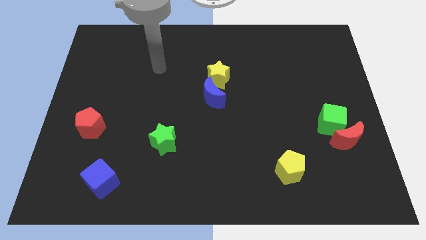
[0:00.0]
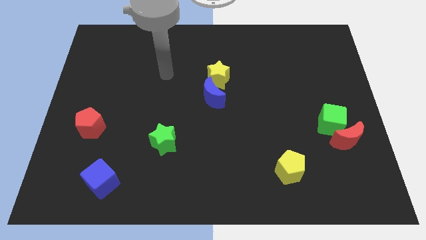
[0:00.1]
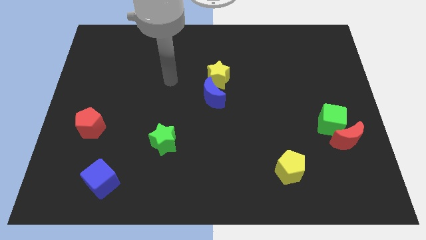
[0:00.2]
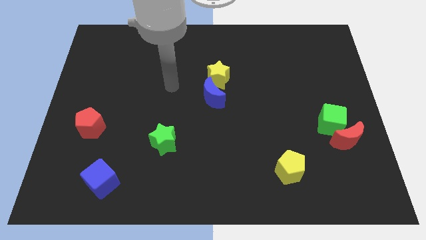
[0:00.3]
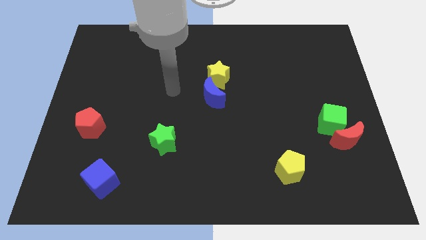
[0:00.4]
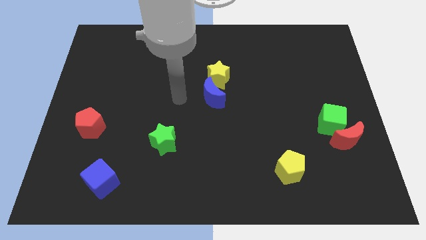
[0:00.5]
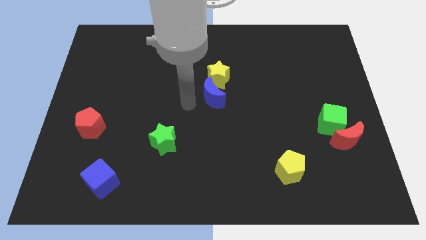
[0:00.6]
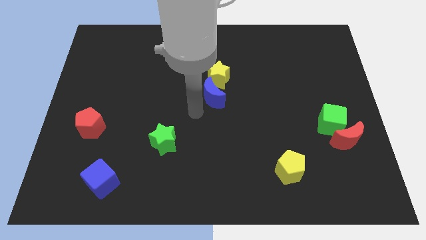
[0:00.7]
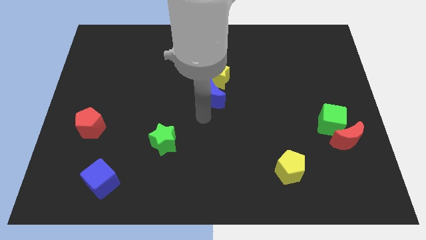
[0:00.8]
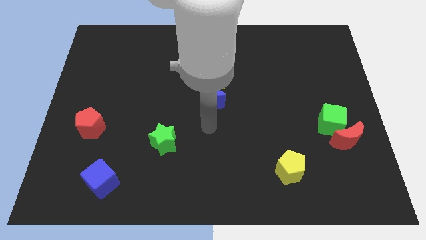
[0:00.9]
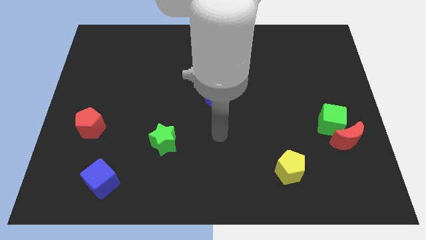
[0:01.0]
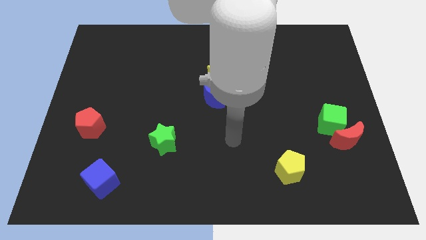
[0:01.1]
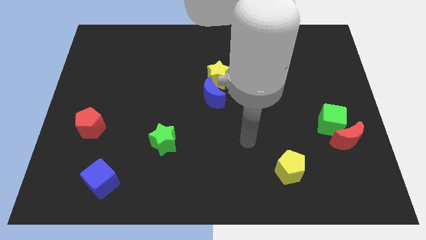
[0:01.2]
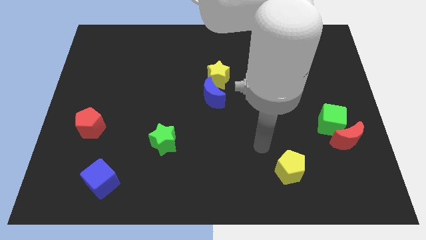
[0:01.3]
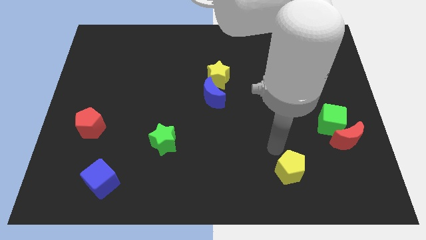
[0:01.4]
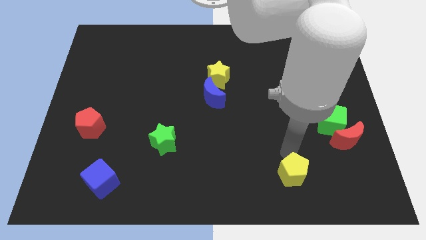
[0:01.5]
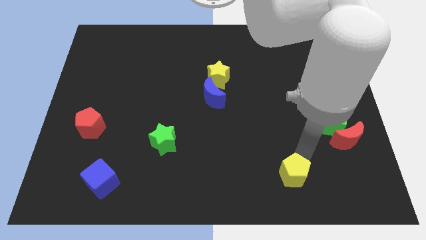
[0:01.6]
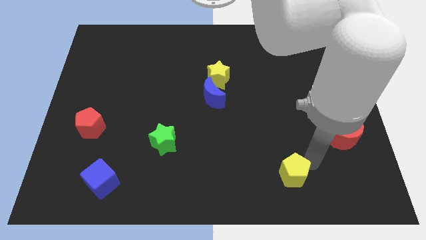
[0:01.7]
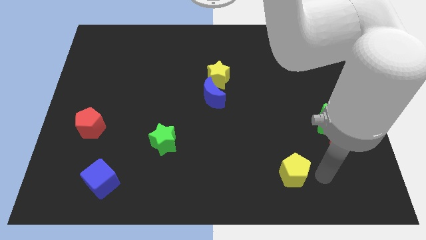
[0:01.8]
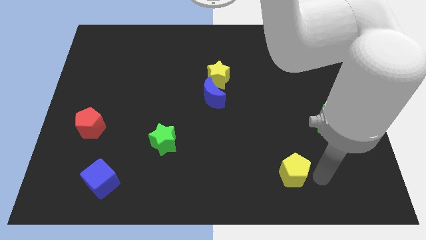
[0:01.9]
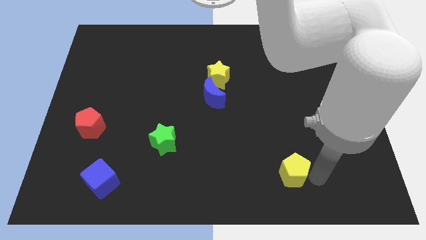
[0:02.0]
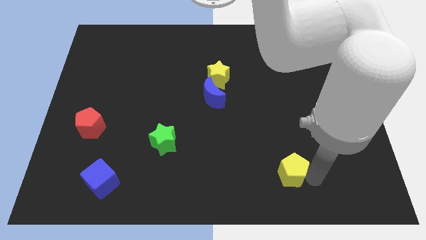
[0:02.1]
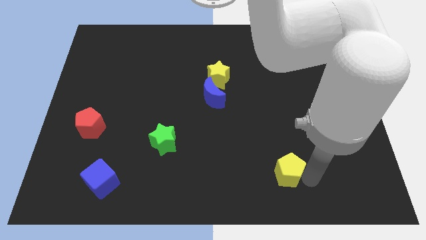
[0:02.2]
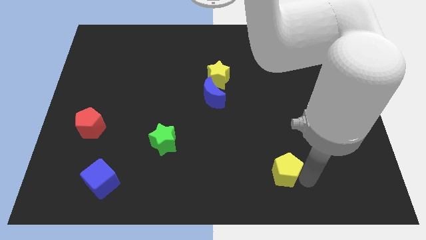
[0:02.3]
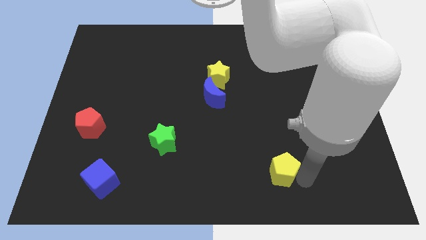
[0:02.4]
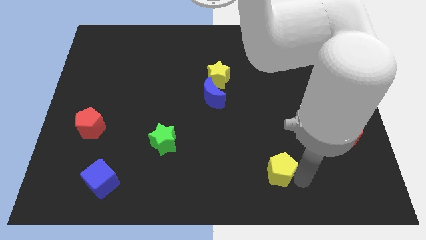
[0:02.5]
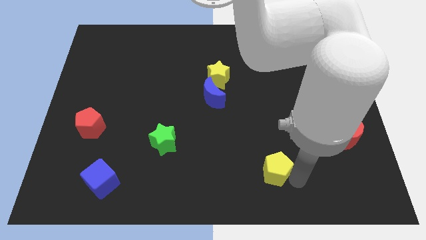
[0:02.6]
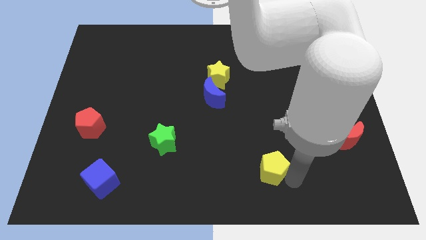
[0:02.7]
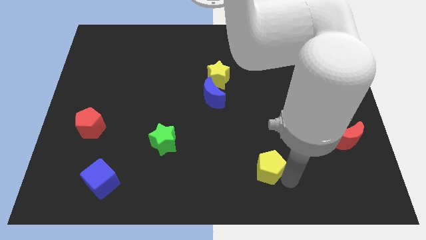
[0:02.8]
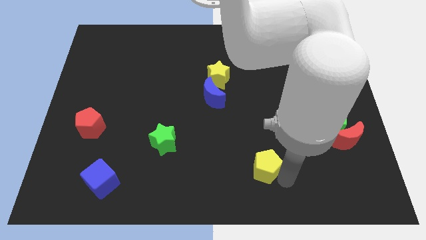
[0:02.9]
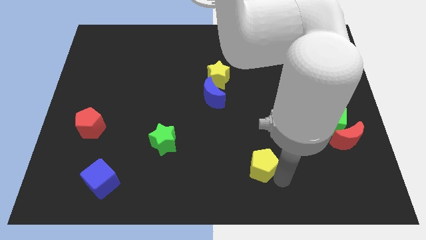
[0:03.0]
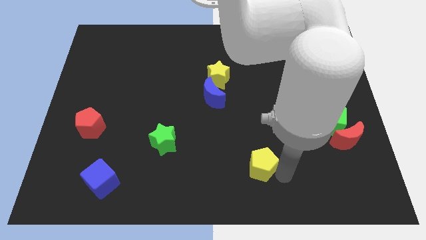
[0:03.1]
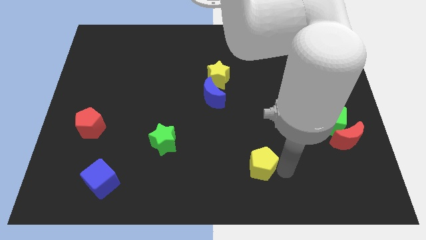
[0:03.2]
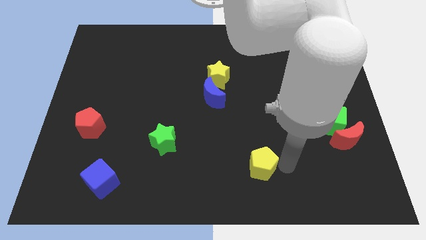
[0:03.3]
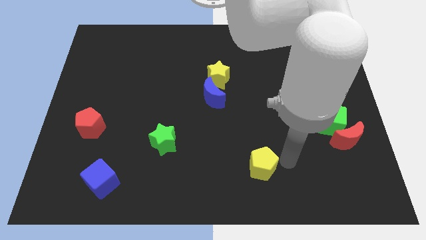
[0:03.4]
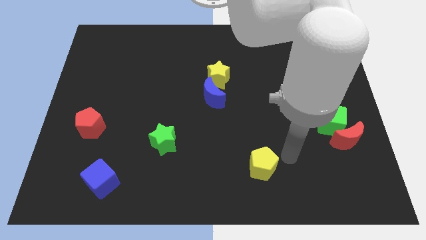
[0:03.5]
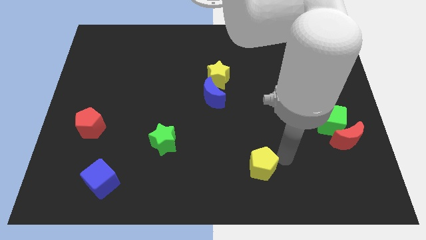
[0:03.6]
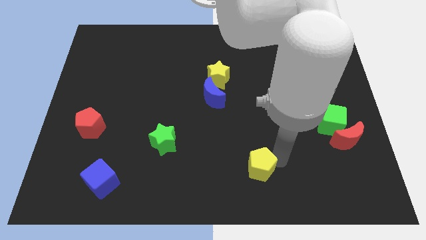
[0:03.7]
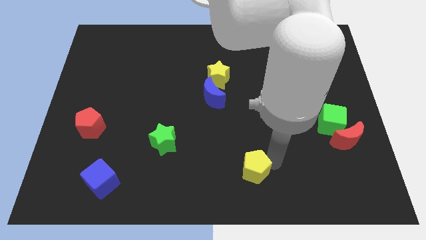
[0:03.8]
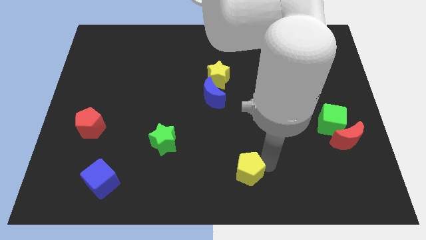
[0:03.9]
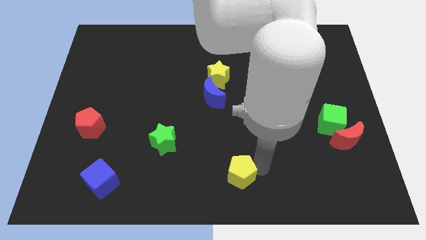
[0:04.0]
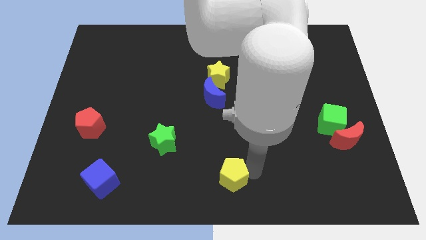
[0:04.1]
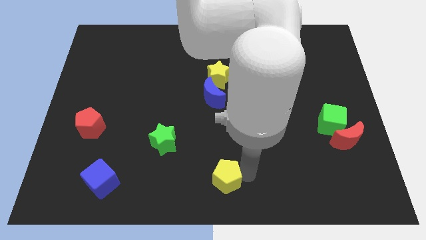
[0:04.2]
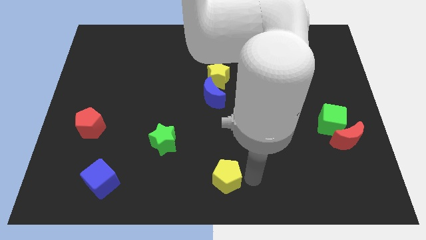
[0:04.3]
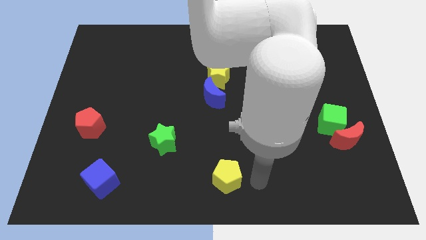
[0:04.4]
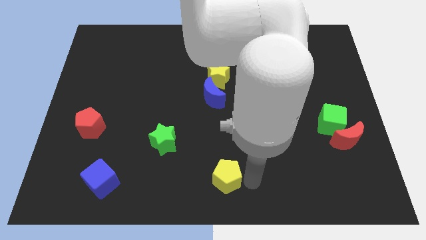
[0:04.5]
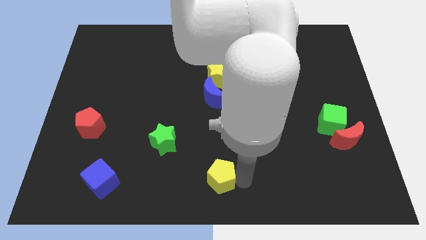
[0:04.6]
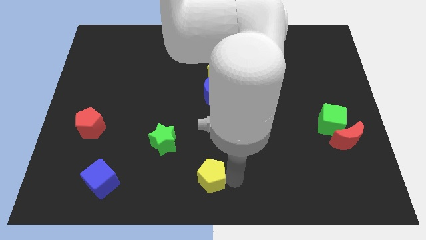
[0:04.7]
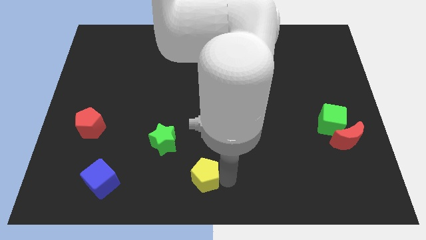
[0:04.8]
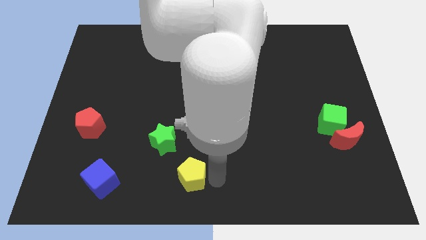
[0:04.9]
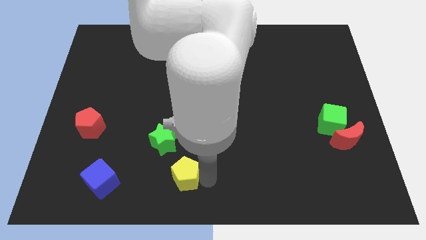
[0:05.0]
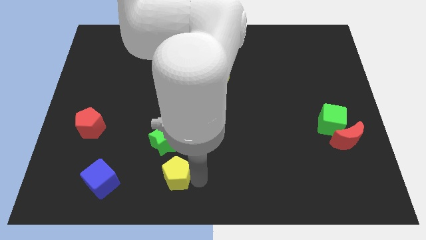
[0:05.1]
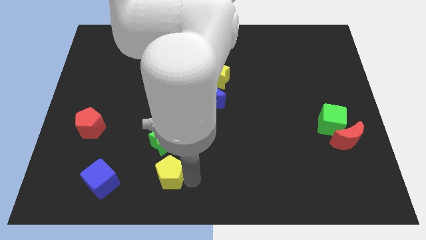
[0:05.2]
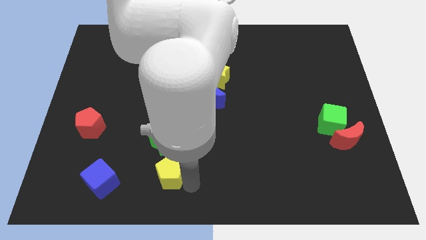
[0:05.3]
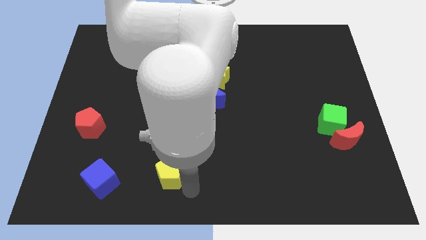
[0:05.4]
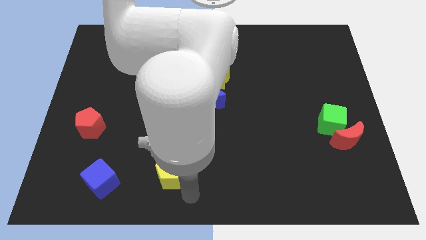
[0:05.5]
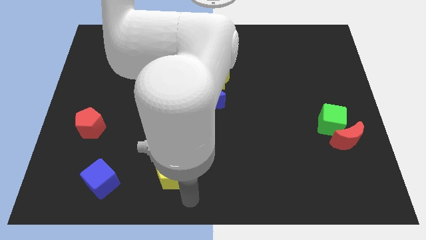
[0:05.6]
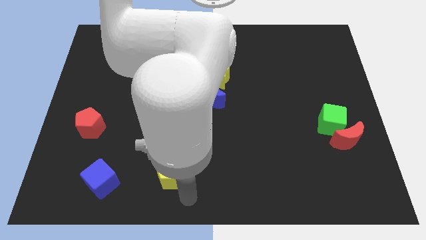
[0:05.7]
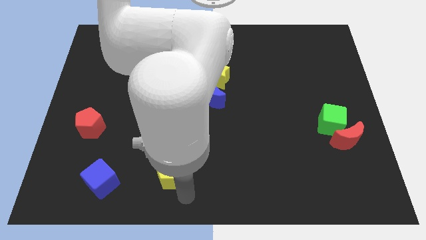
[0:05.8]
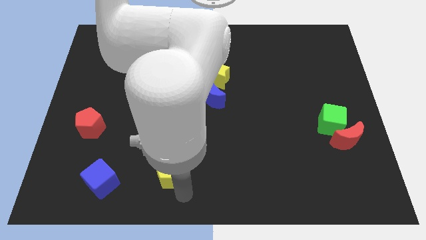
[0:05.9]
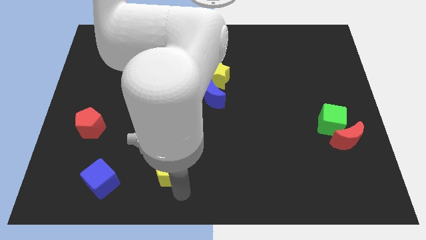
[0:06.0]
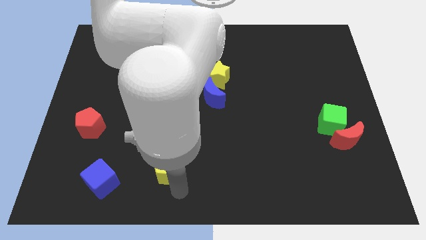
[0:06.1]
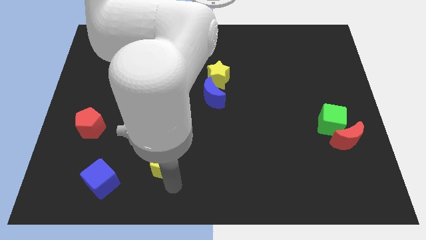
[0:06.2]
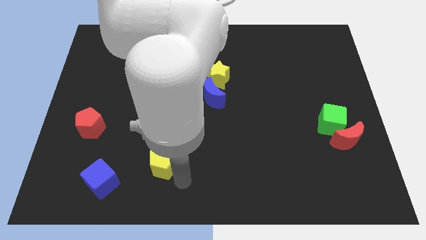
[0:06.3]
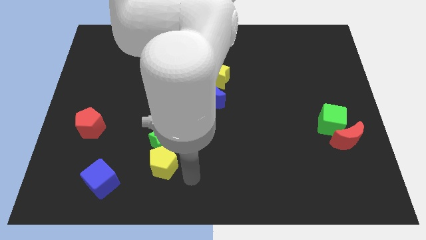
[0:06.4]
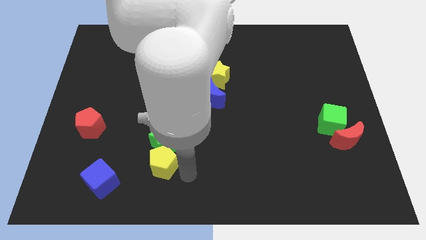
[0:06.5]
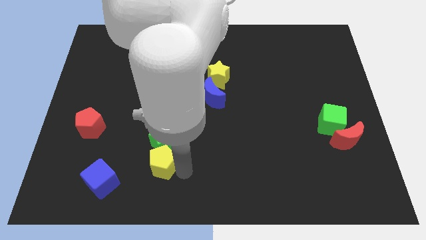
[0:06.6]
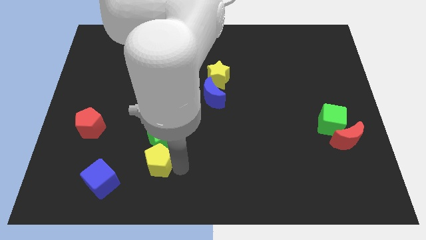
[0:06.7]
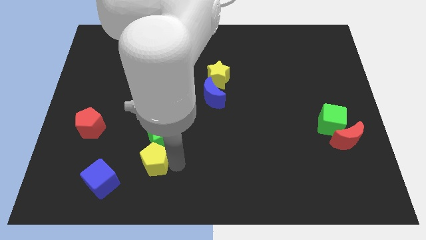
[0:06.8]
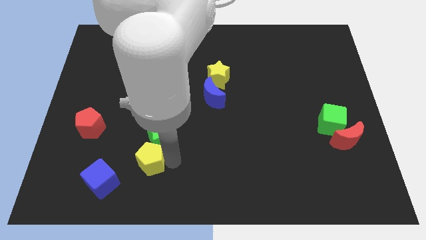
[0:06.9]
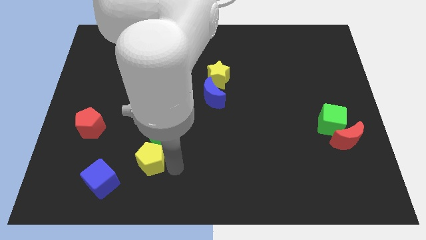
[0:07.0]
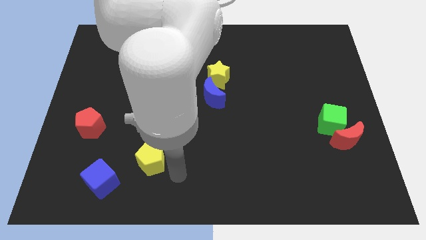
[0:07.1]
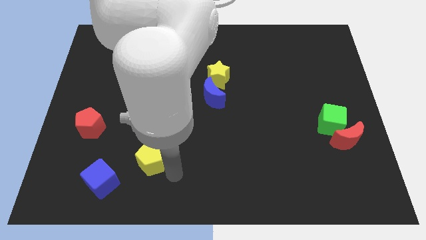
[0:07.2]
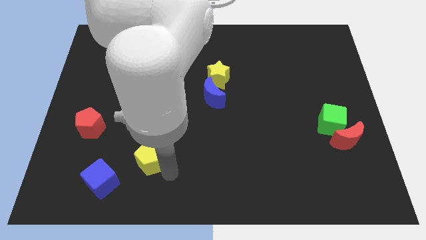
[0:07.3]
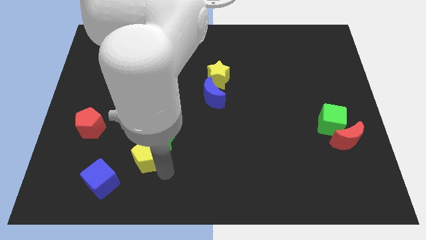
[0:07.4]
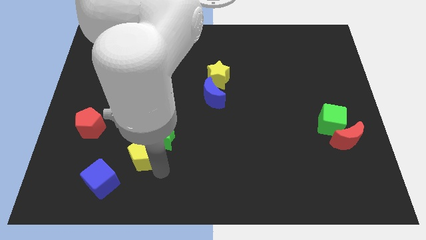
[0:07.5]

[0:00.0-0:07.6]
slide the yellow pentagon left of the green star
